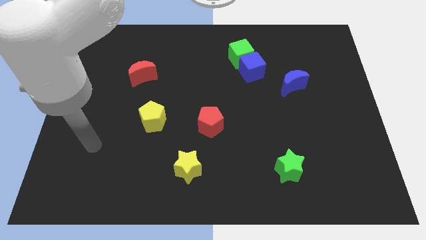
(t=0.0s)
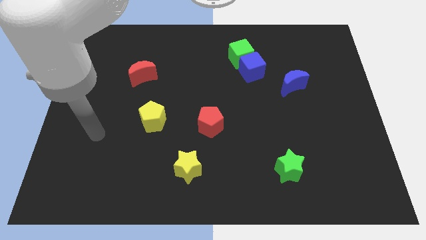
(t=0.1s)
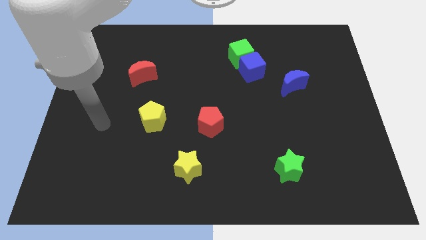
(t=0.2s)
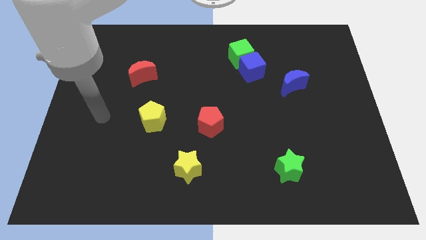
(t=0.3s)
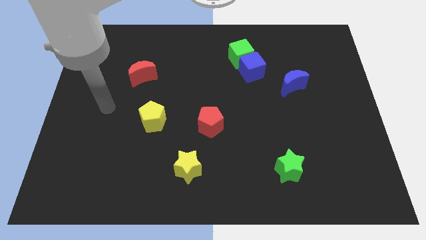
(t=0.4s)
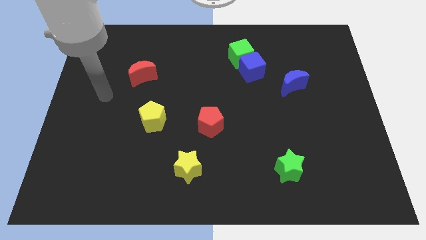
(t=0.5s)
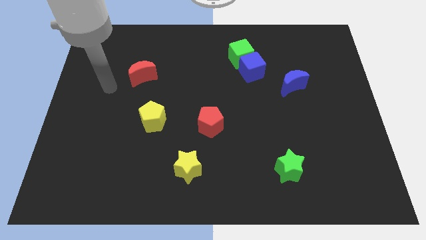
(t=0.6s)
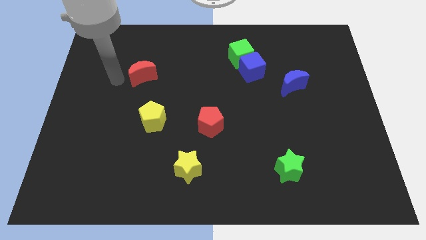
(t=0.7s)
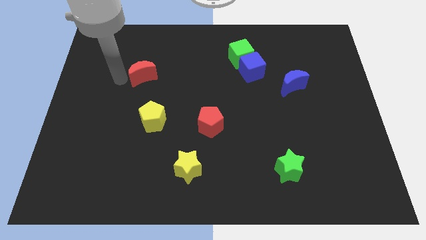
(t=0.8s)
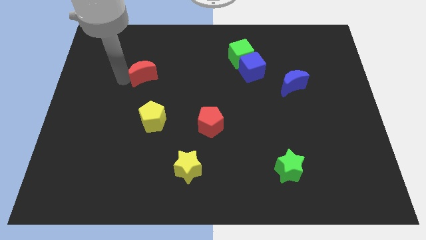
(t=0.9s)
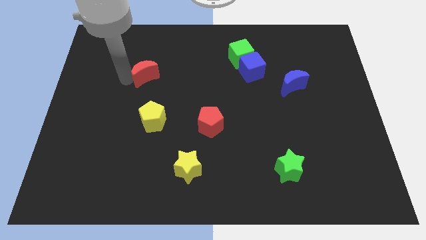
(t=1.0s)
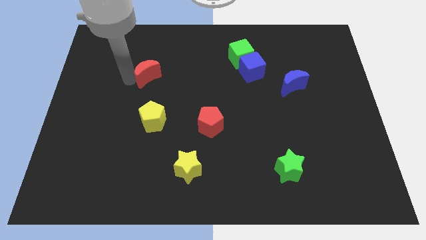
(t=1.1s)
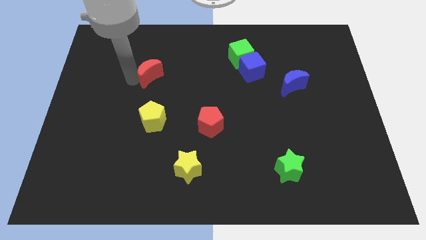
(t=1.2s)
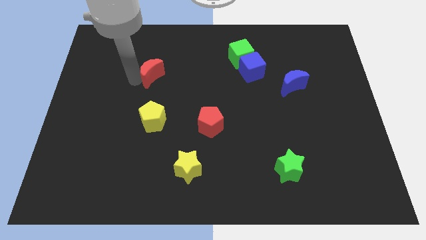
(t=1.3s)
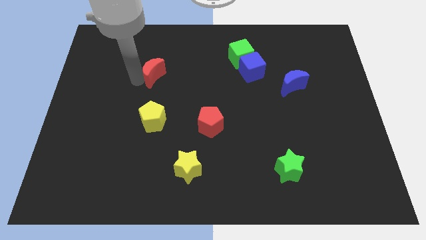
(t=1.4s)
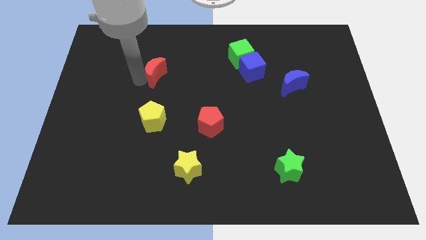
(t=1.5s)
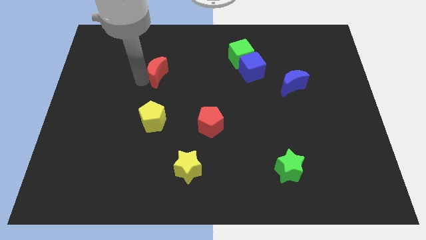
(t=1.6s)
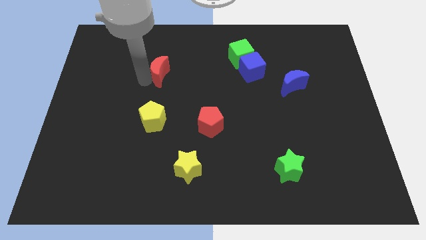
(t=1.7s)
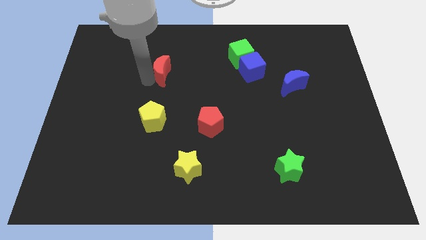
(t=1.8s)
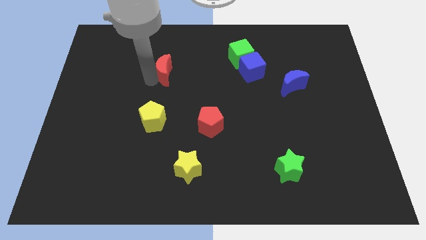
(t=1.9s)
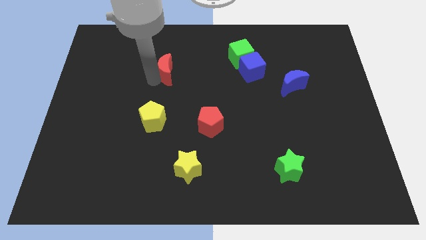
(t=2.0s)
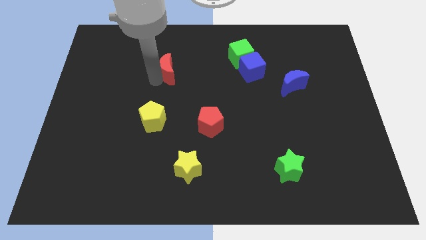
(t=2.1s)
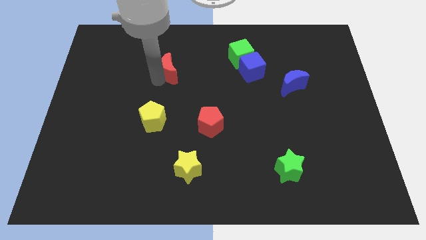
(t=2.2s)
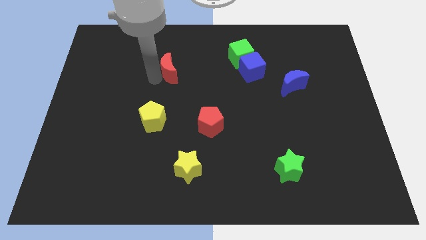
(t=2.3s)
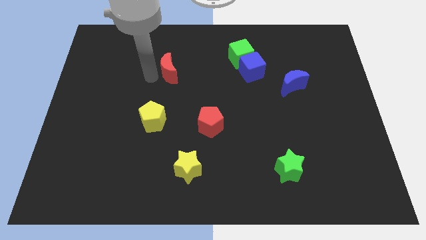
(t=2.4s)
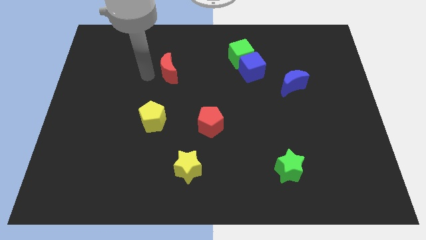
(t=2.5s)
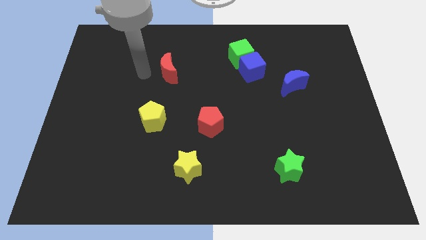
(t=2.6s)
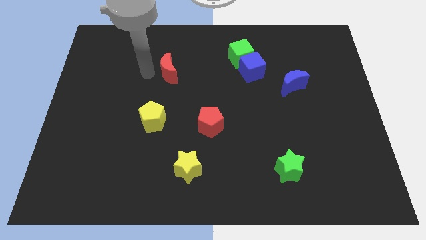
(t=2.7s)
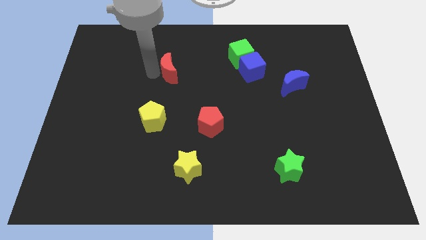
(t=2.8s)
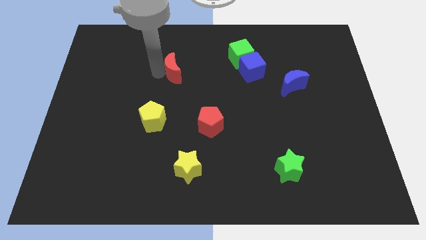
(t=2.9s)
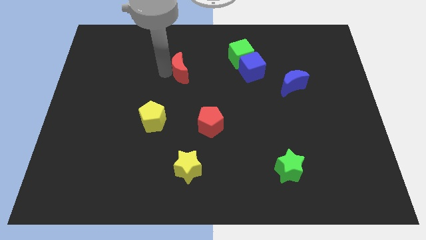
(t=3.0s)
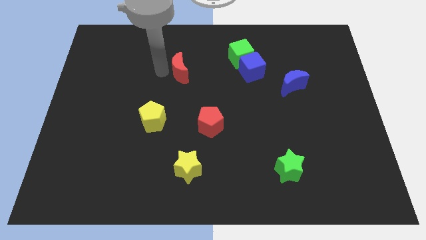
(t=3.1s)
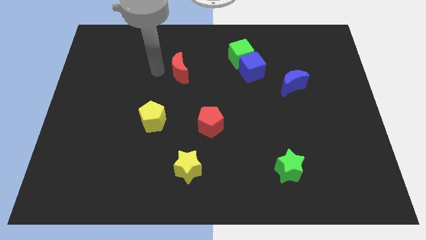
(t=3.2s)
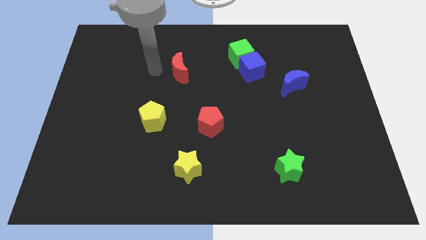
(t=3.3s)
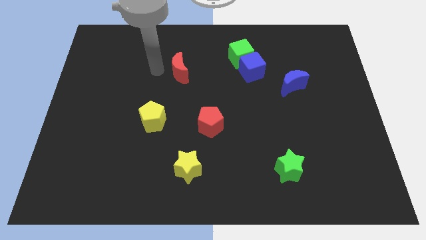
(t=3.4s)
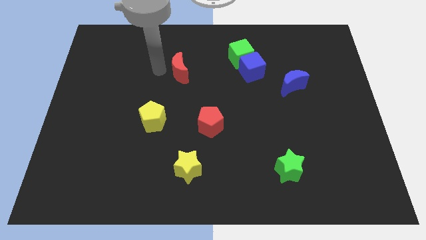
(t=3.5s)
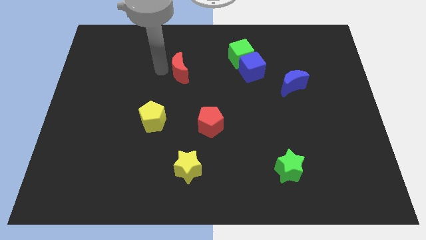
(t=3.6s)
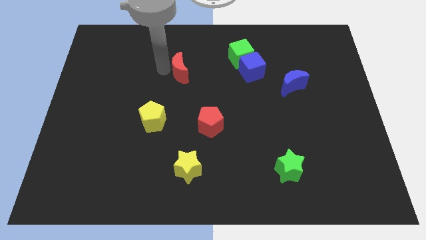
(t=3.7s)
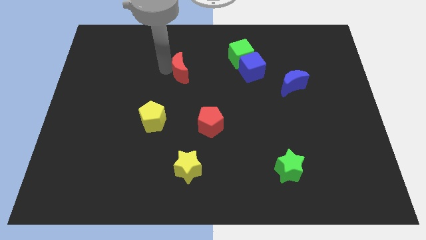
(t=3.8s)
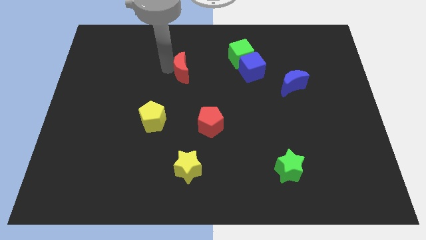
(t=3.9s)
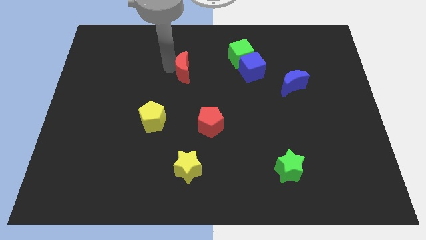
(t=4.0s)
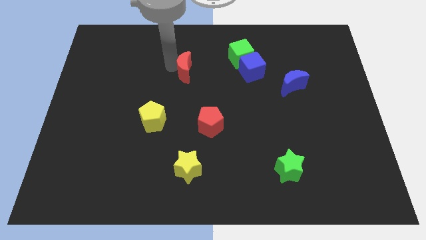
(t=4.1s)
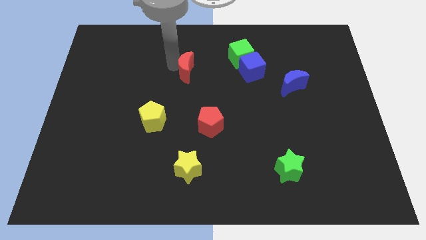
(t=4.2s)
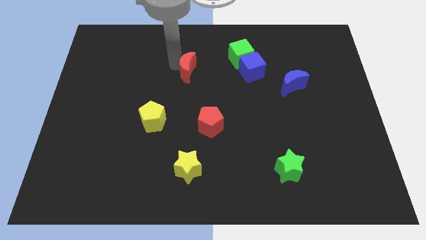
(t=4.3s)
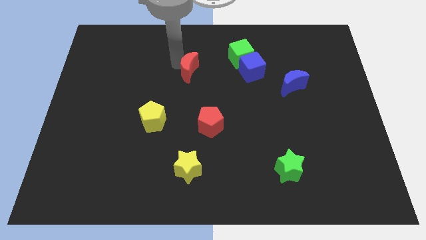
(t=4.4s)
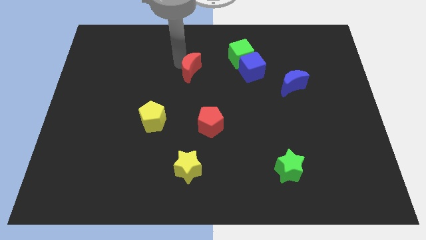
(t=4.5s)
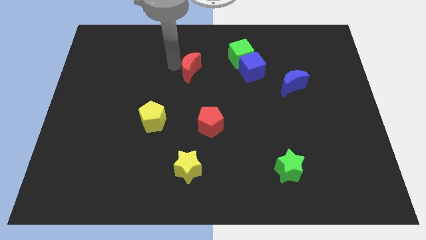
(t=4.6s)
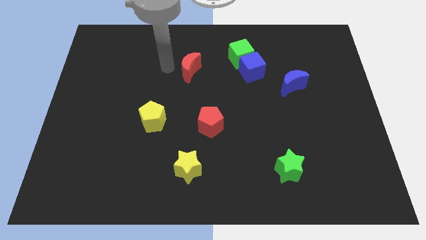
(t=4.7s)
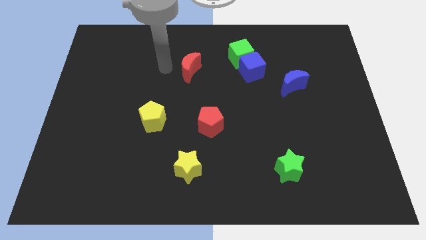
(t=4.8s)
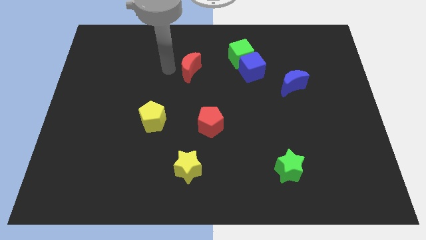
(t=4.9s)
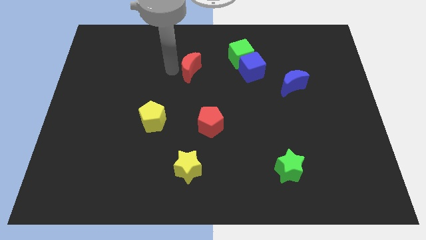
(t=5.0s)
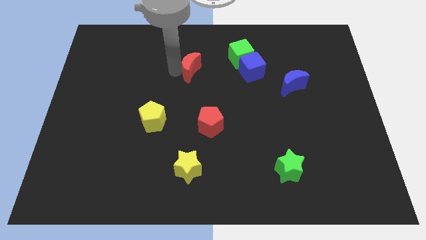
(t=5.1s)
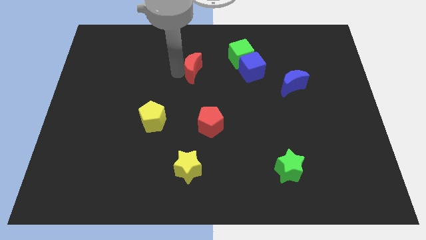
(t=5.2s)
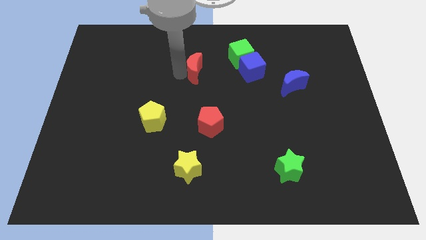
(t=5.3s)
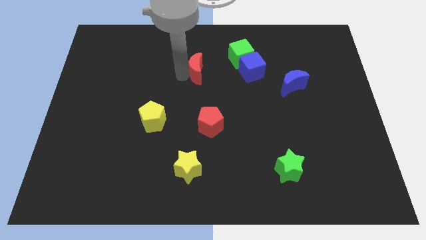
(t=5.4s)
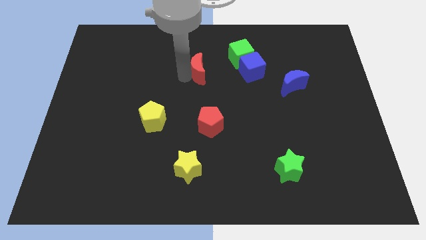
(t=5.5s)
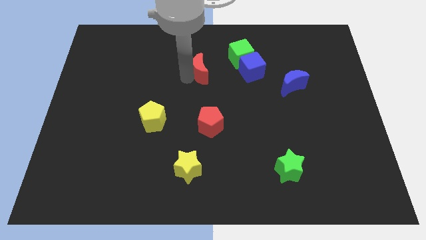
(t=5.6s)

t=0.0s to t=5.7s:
move the red moon to the bottom left of the green cube

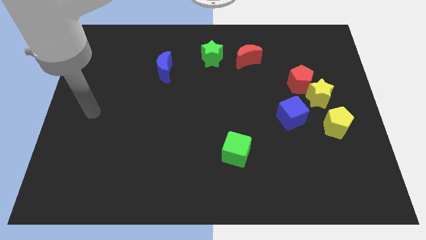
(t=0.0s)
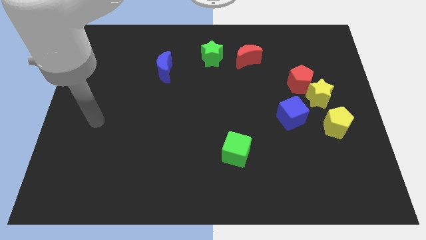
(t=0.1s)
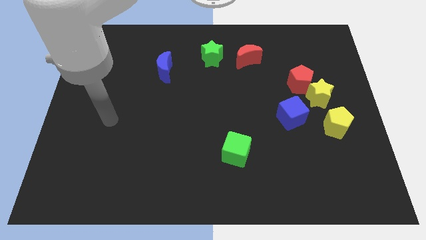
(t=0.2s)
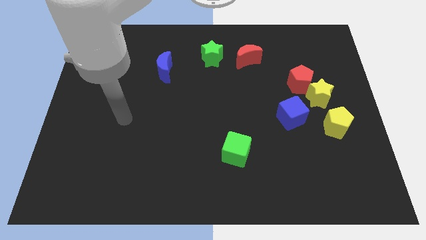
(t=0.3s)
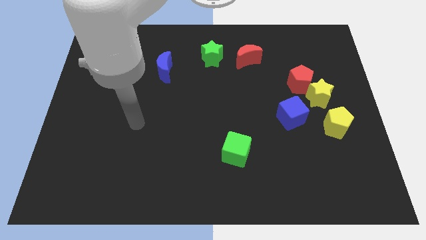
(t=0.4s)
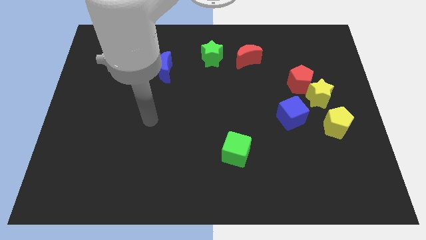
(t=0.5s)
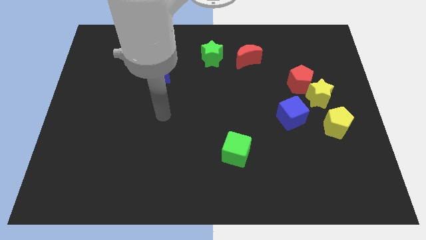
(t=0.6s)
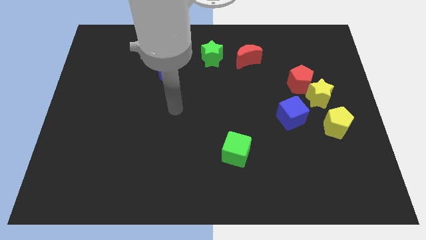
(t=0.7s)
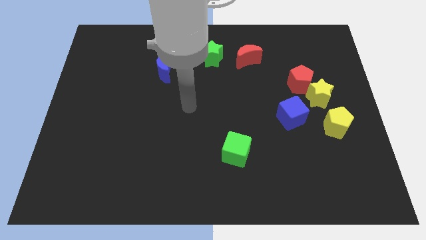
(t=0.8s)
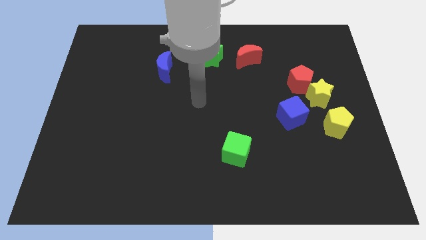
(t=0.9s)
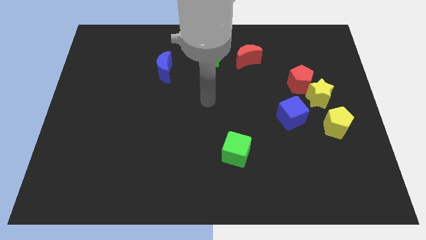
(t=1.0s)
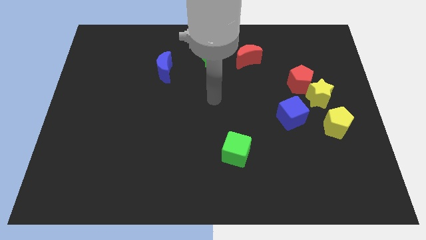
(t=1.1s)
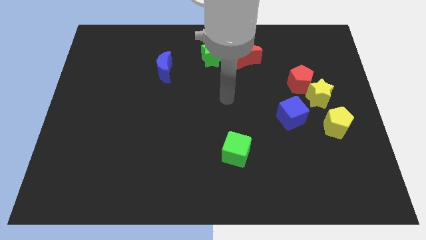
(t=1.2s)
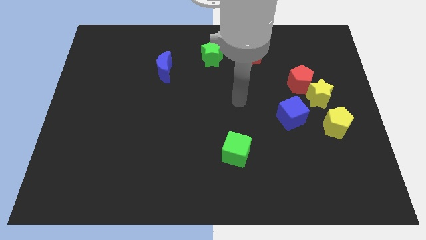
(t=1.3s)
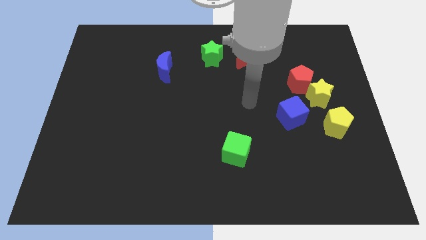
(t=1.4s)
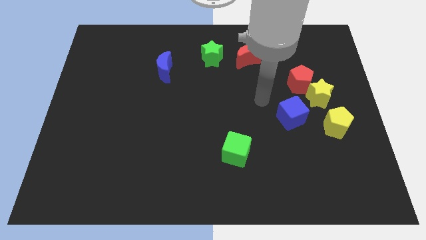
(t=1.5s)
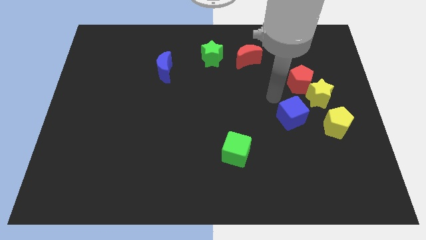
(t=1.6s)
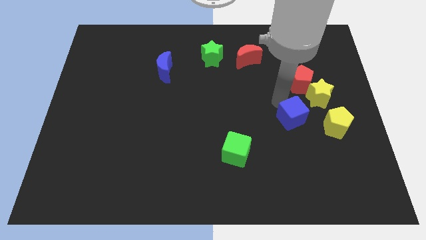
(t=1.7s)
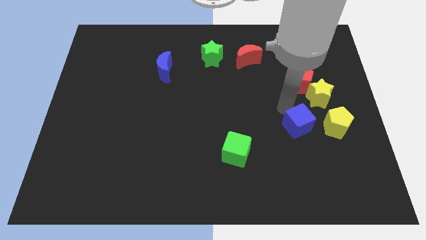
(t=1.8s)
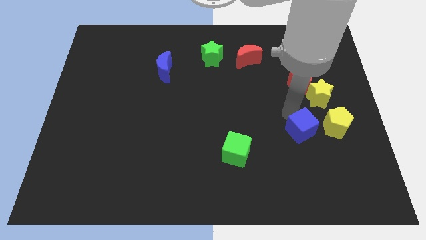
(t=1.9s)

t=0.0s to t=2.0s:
move the blue cube diagonally down and to the left of the yellow pentagon

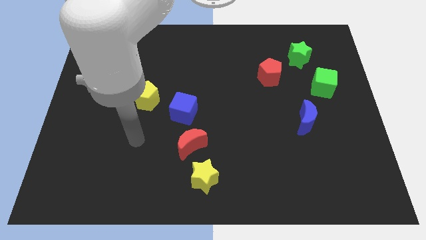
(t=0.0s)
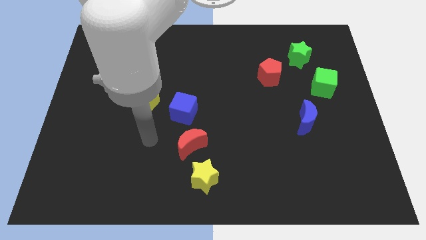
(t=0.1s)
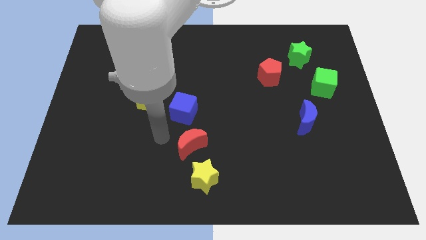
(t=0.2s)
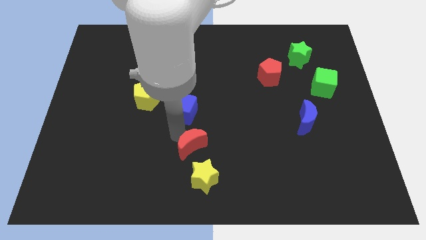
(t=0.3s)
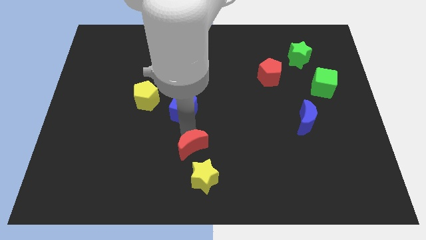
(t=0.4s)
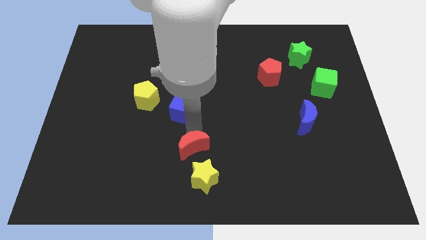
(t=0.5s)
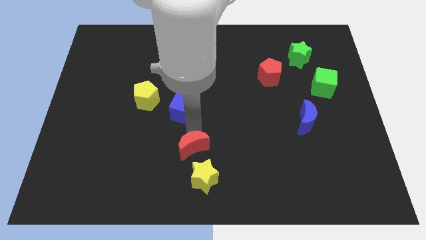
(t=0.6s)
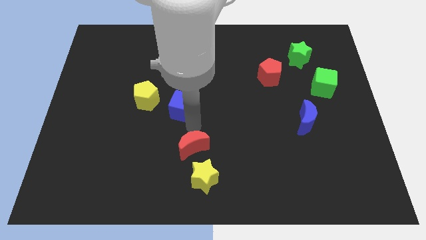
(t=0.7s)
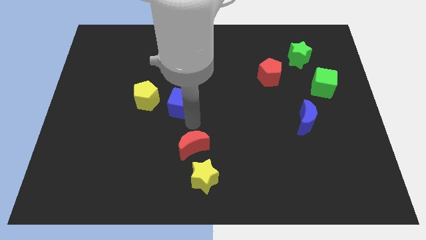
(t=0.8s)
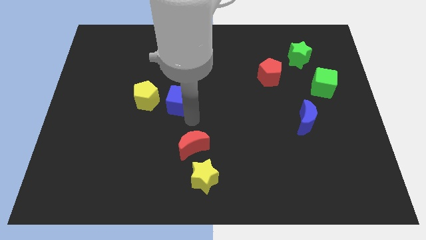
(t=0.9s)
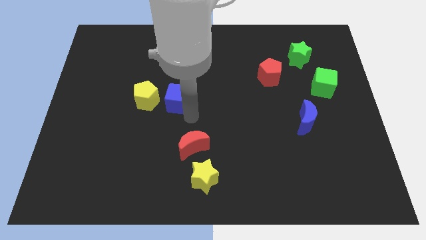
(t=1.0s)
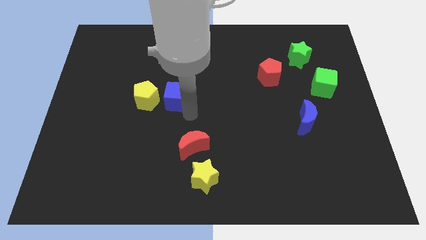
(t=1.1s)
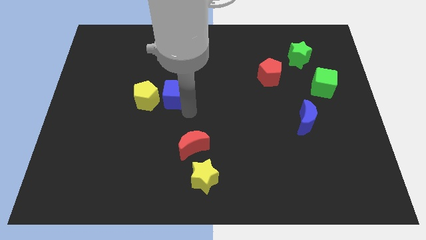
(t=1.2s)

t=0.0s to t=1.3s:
slide the blue cube diagonally up and to the right of the yellow pentagon
